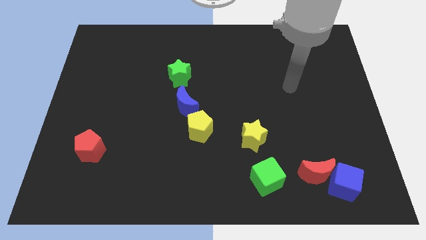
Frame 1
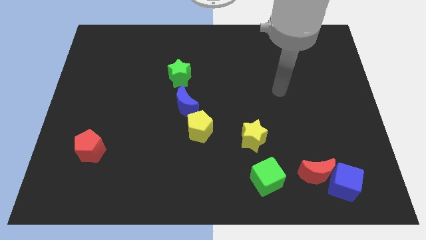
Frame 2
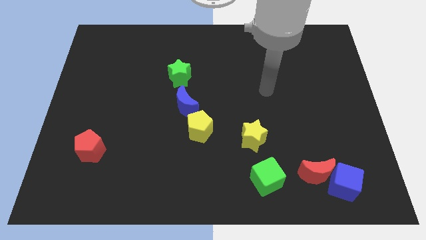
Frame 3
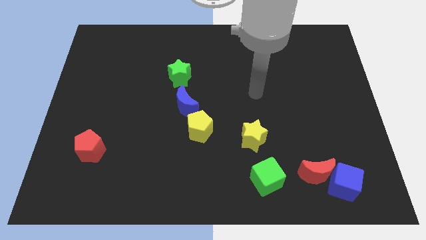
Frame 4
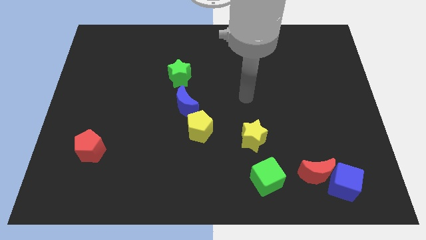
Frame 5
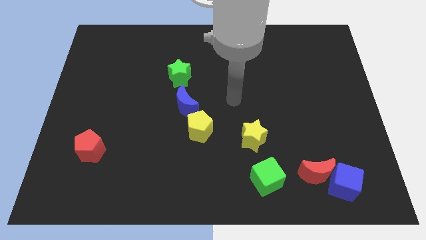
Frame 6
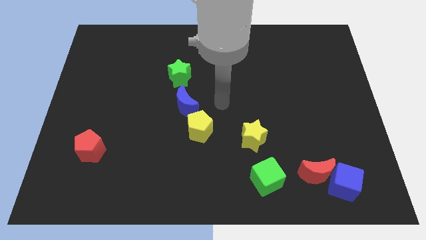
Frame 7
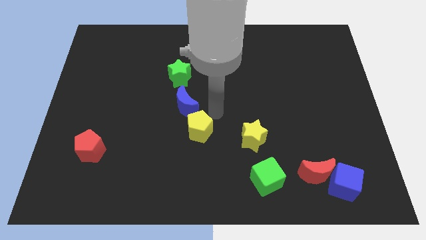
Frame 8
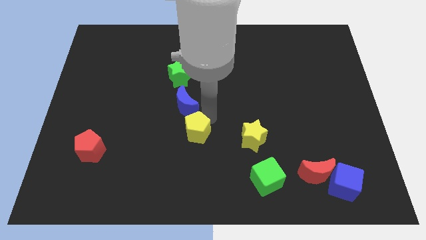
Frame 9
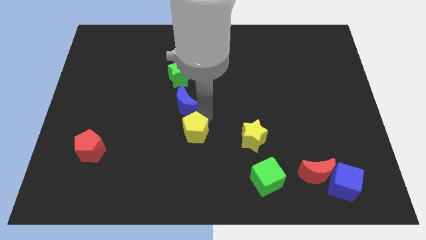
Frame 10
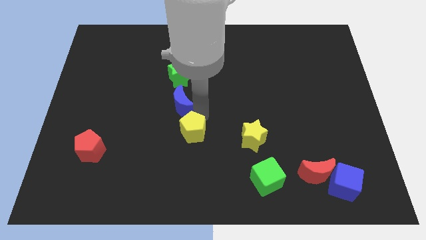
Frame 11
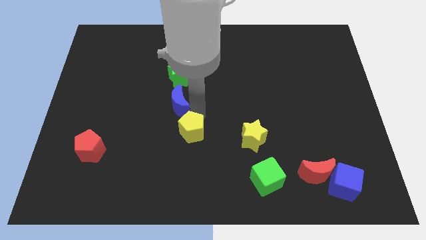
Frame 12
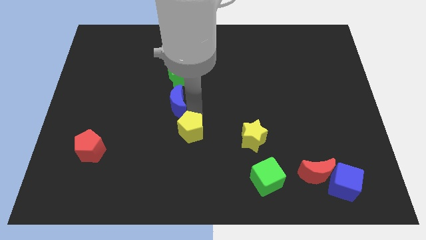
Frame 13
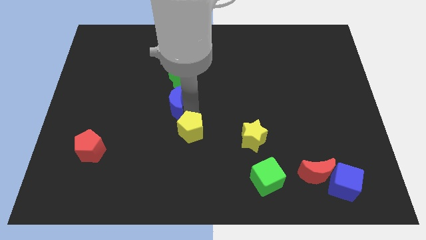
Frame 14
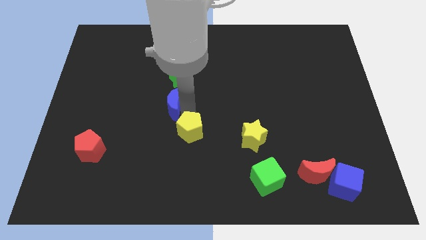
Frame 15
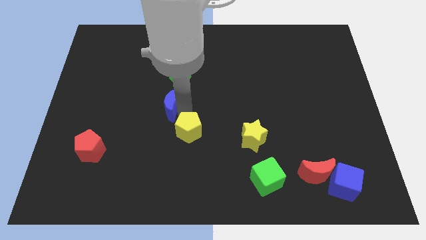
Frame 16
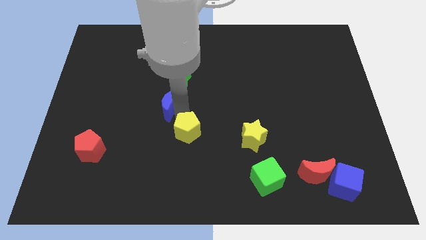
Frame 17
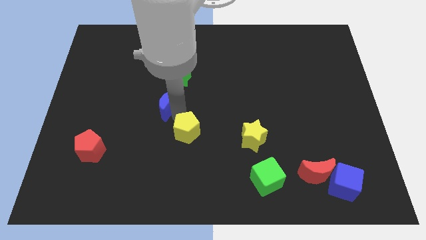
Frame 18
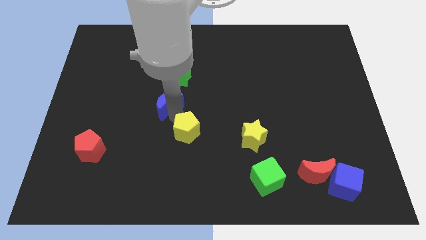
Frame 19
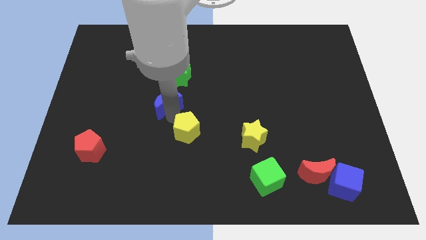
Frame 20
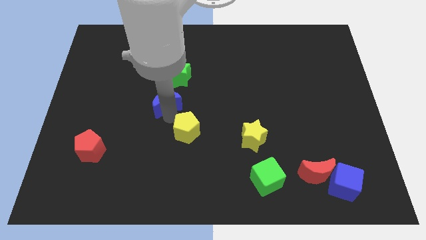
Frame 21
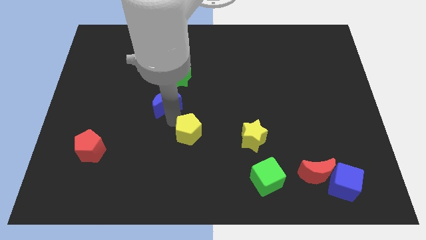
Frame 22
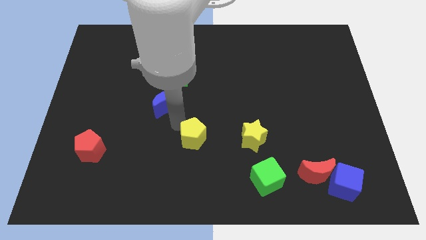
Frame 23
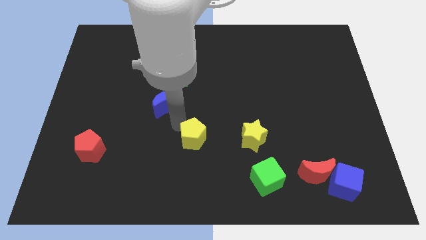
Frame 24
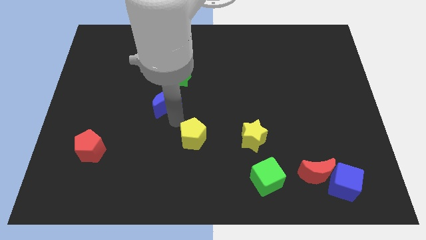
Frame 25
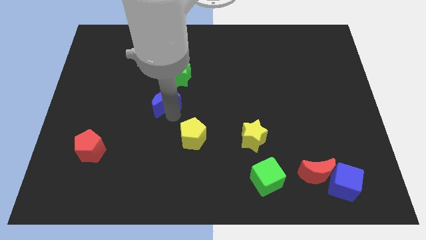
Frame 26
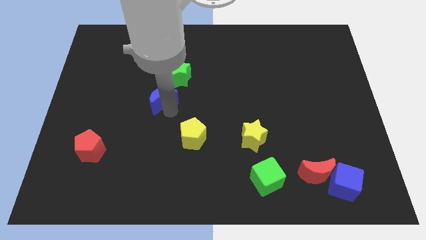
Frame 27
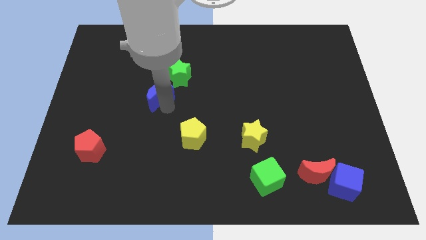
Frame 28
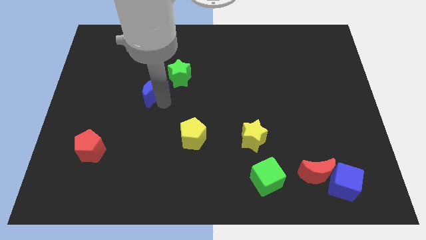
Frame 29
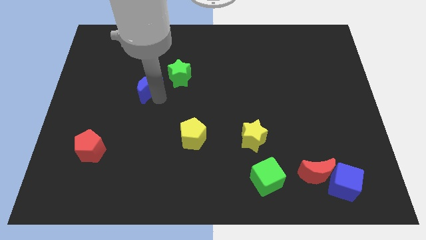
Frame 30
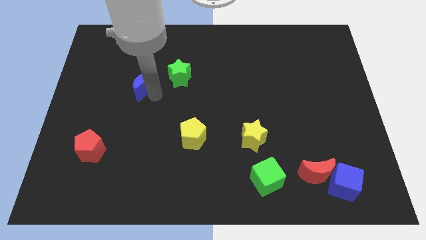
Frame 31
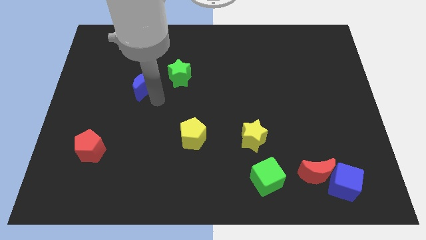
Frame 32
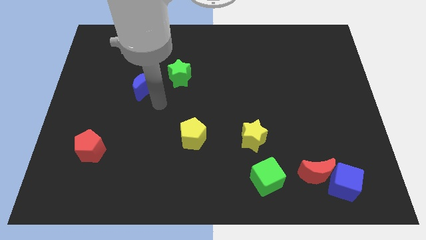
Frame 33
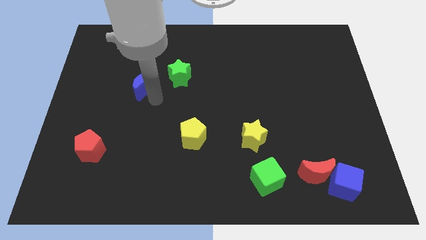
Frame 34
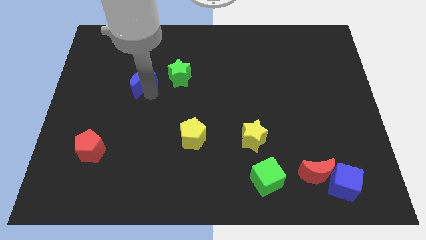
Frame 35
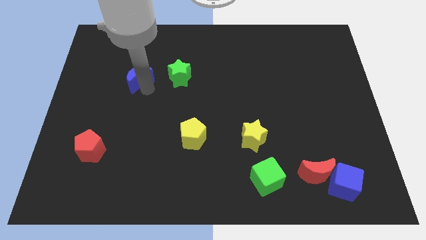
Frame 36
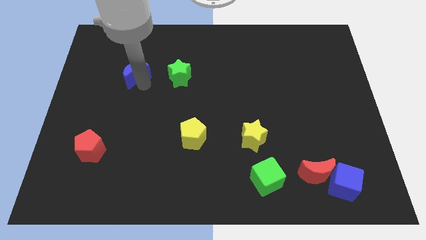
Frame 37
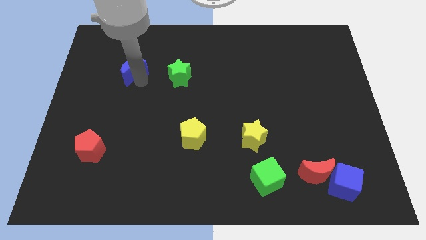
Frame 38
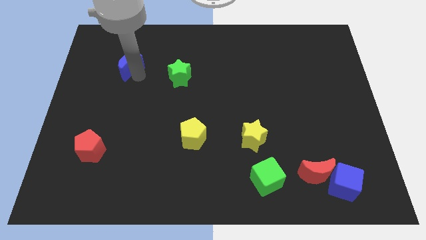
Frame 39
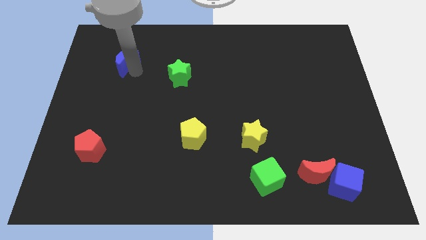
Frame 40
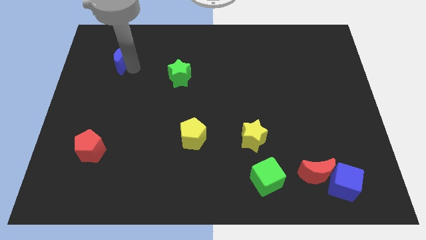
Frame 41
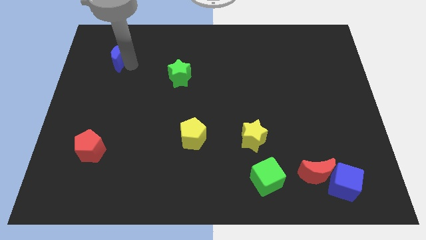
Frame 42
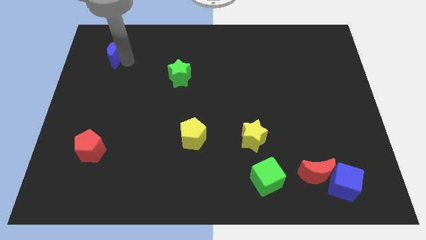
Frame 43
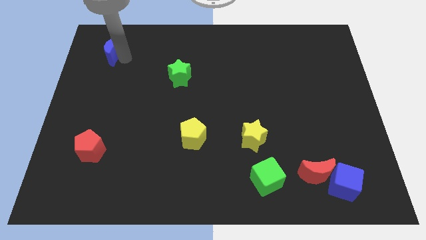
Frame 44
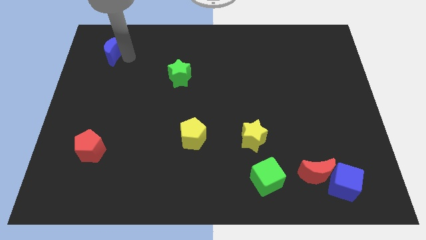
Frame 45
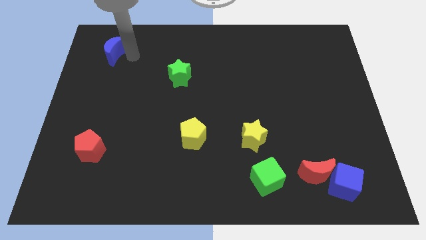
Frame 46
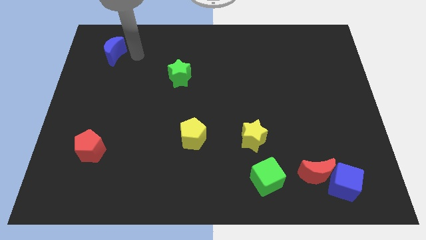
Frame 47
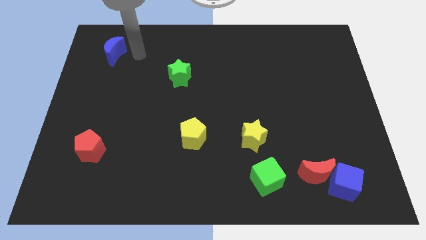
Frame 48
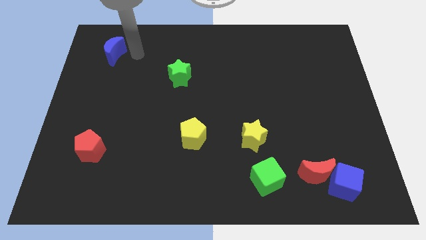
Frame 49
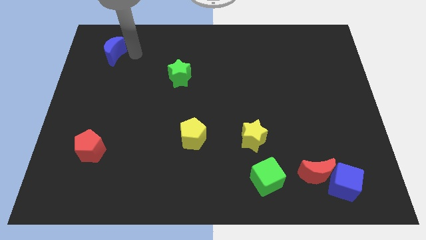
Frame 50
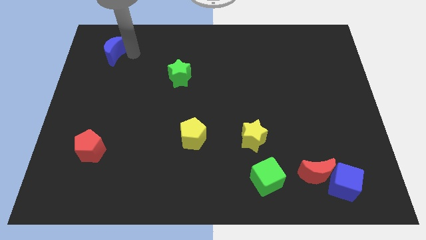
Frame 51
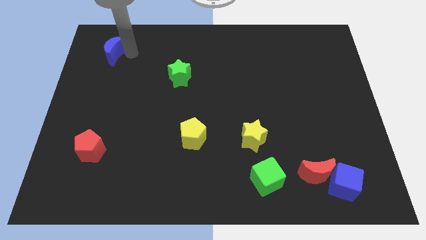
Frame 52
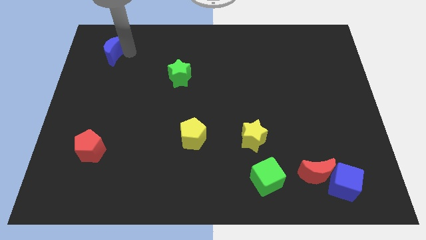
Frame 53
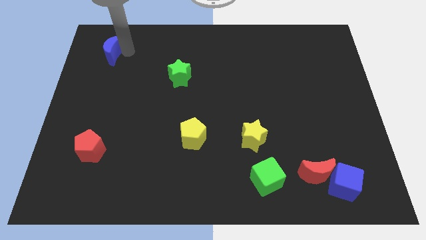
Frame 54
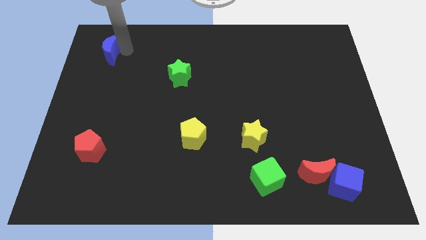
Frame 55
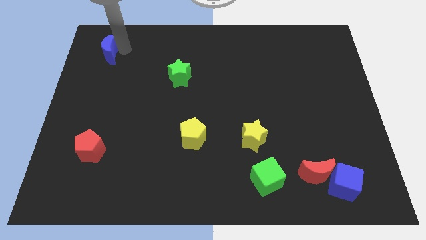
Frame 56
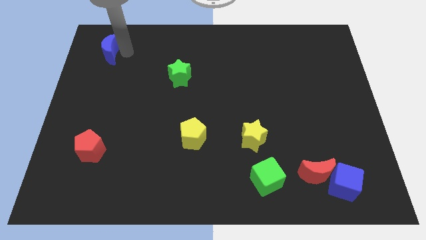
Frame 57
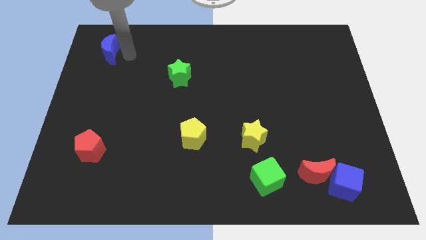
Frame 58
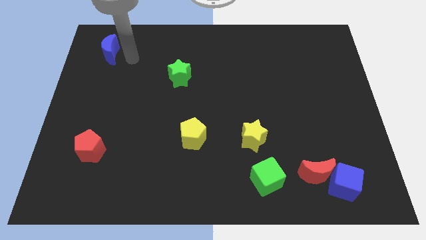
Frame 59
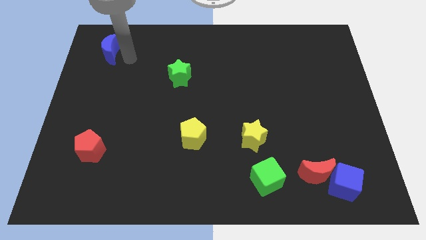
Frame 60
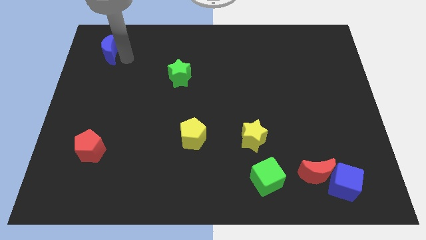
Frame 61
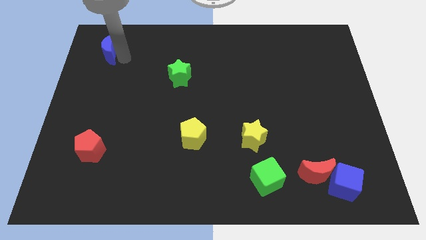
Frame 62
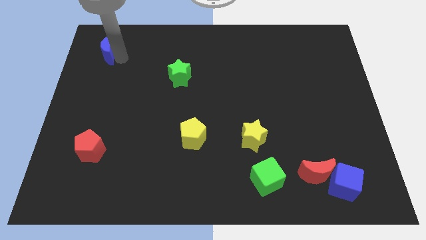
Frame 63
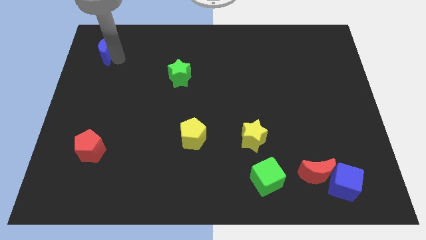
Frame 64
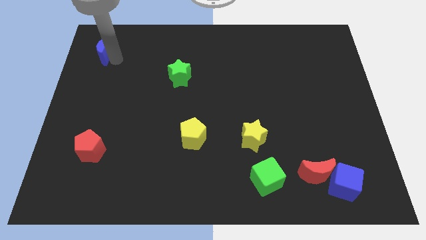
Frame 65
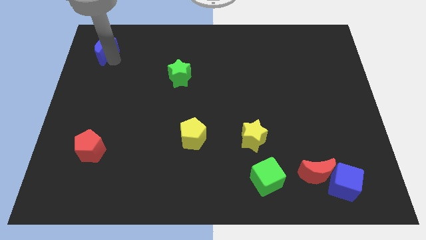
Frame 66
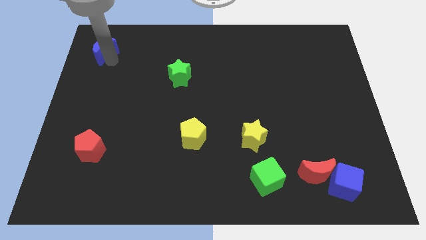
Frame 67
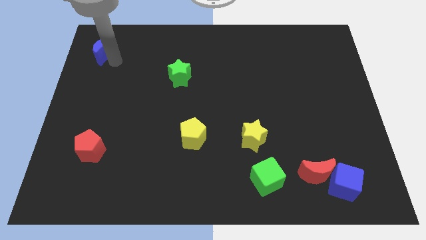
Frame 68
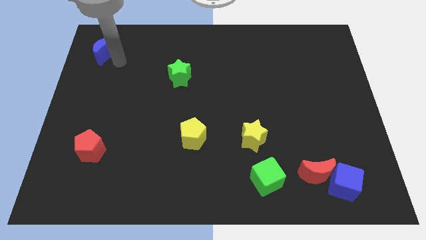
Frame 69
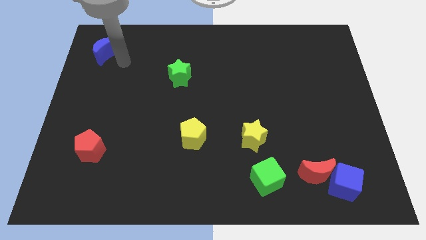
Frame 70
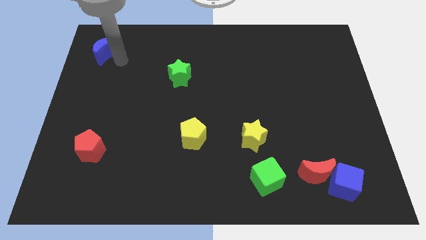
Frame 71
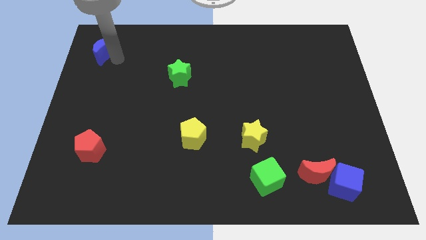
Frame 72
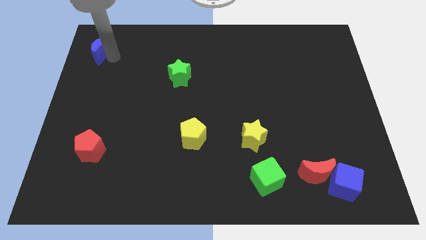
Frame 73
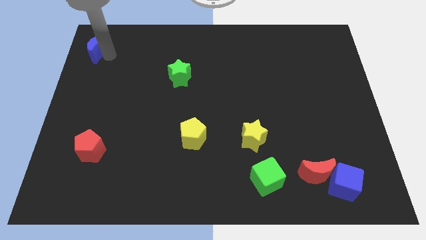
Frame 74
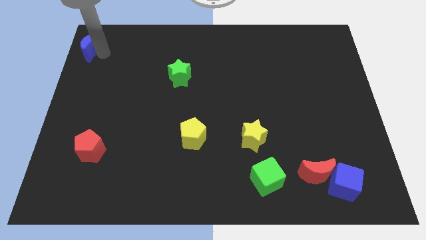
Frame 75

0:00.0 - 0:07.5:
push the blue moon to the top left corner
